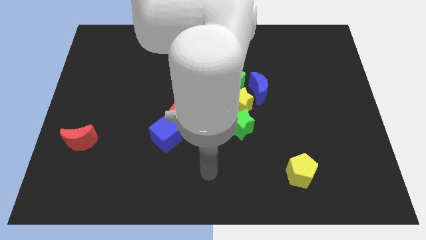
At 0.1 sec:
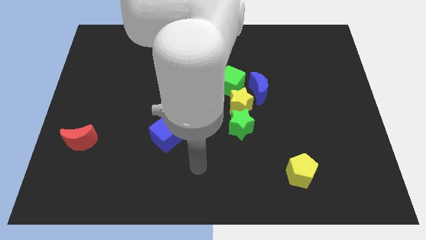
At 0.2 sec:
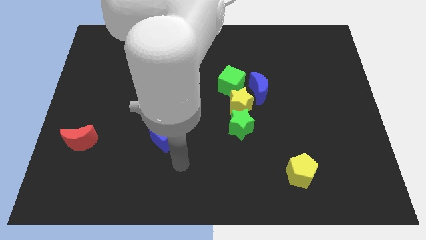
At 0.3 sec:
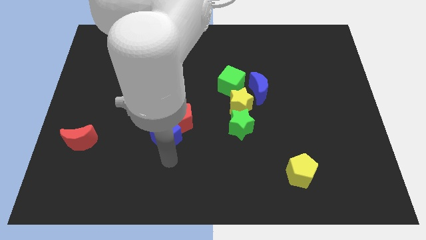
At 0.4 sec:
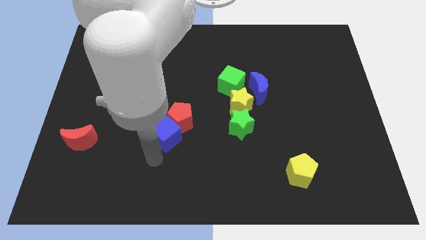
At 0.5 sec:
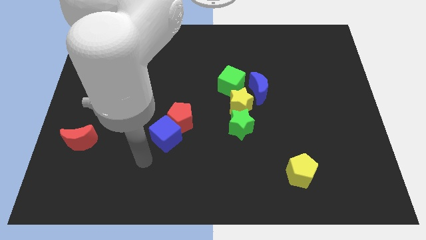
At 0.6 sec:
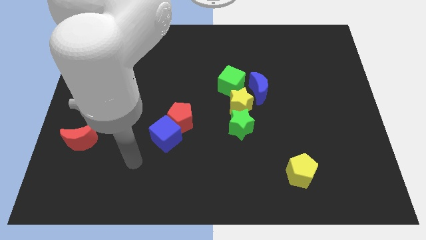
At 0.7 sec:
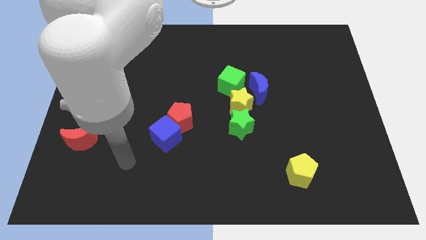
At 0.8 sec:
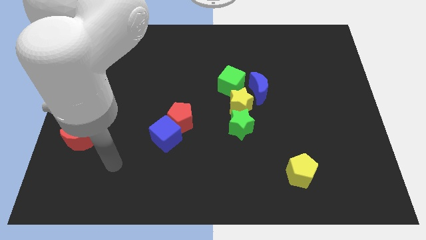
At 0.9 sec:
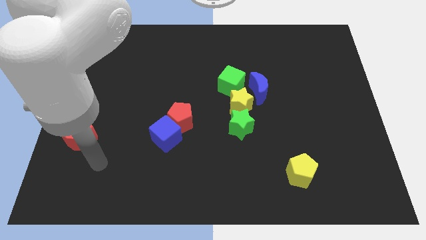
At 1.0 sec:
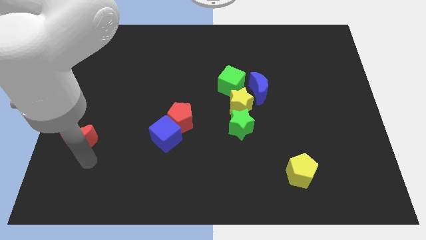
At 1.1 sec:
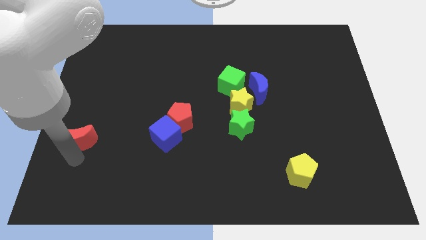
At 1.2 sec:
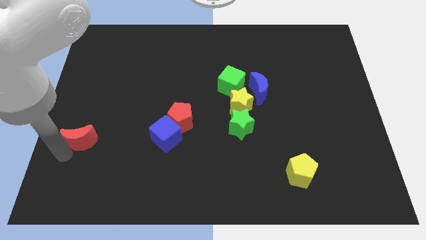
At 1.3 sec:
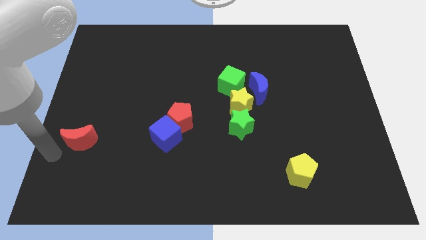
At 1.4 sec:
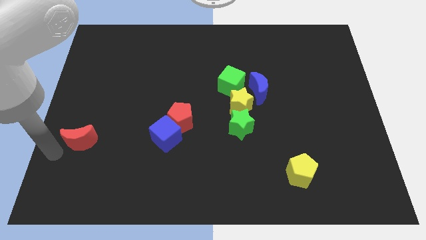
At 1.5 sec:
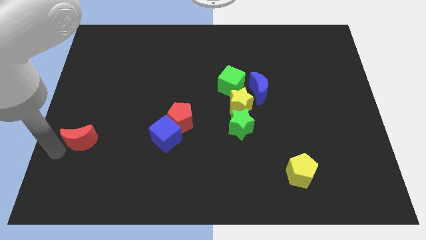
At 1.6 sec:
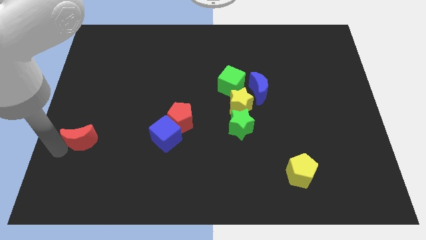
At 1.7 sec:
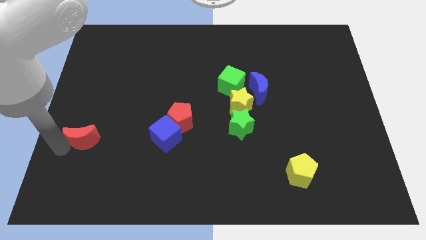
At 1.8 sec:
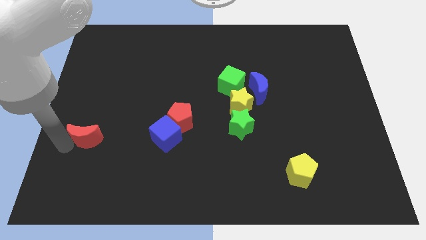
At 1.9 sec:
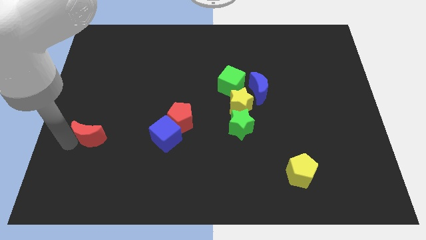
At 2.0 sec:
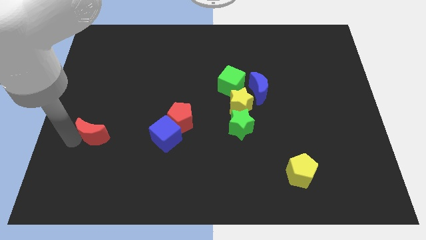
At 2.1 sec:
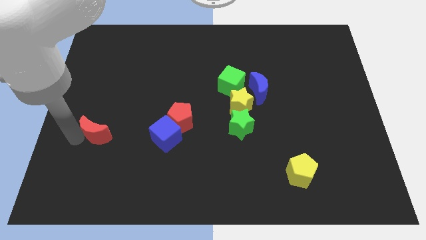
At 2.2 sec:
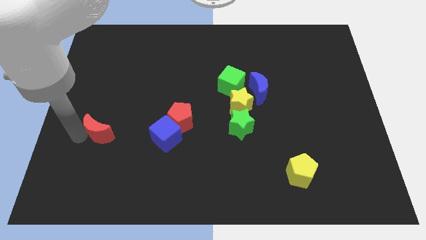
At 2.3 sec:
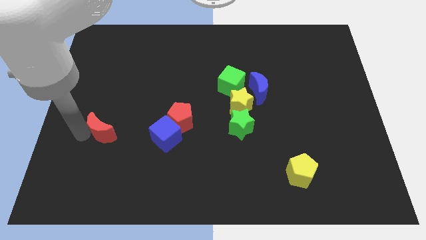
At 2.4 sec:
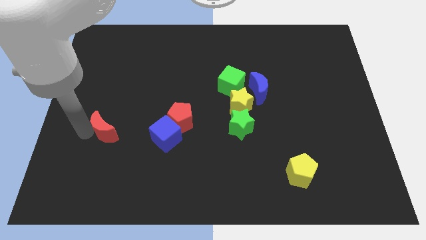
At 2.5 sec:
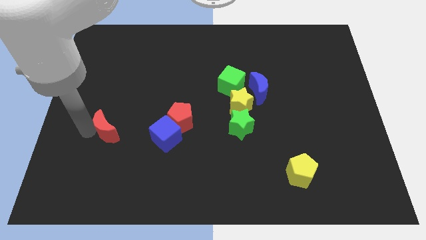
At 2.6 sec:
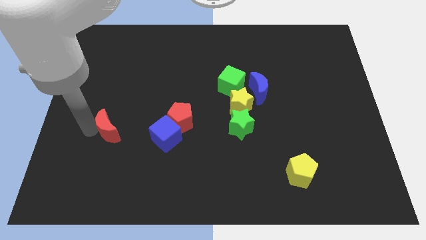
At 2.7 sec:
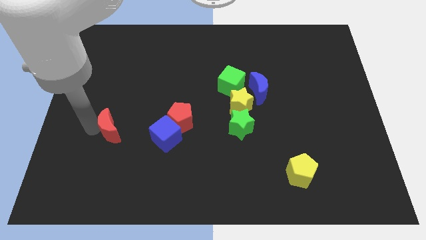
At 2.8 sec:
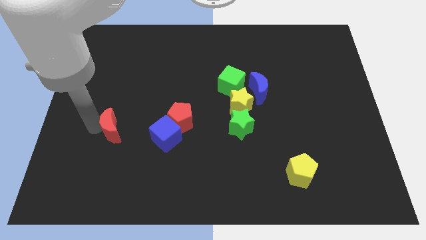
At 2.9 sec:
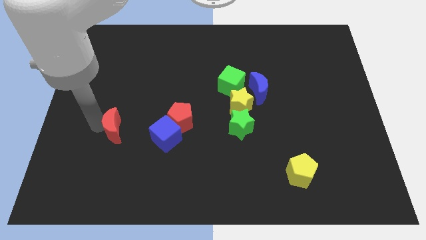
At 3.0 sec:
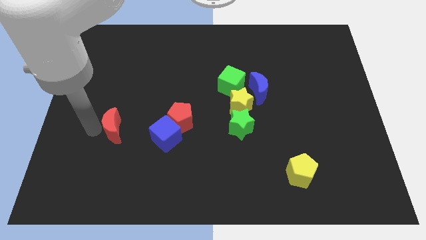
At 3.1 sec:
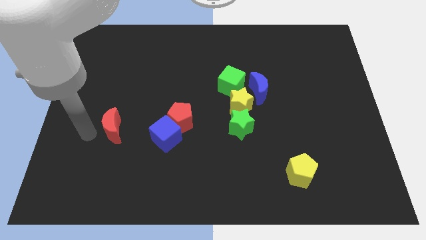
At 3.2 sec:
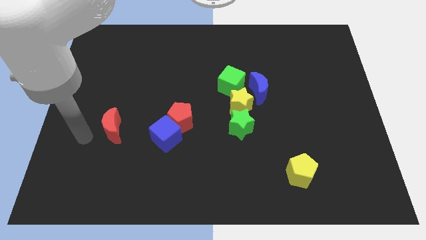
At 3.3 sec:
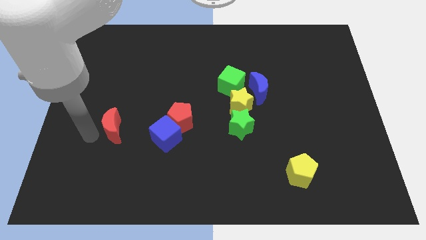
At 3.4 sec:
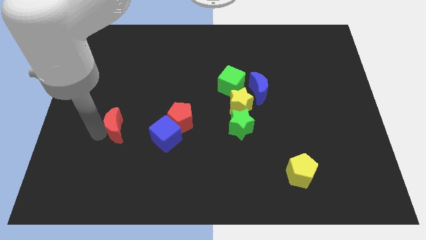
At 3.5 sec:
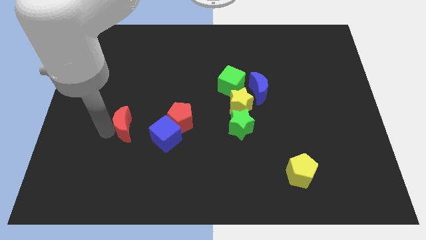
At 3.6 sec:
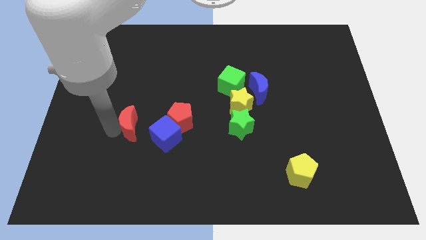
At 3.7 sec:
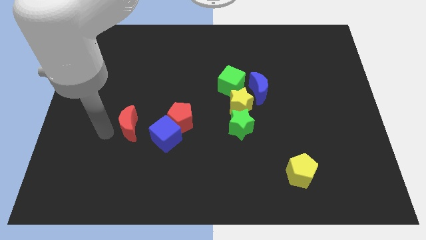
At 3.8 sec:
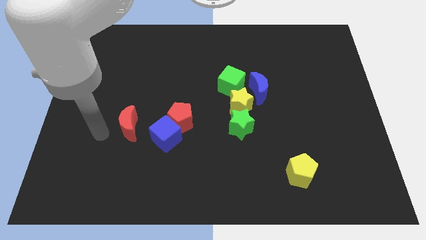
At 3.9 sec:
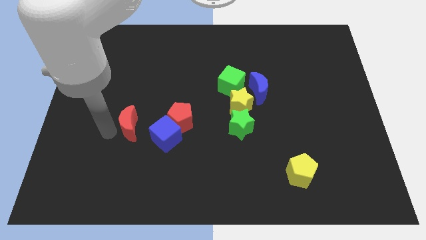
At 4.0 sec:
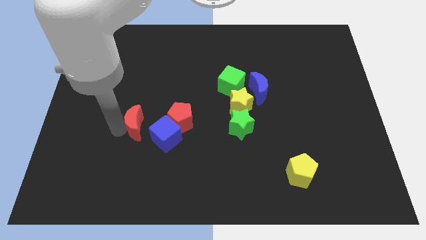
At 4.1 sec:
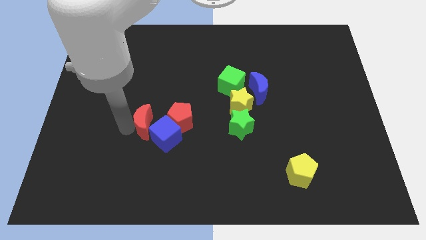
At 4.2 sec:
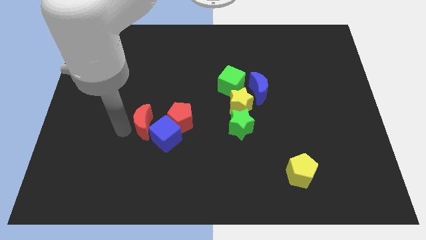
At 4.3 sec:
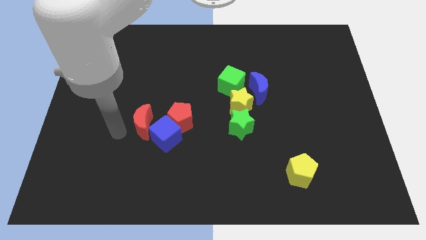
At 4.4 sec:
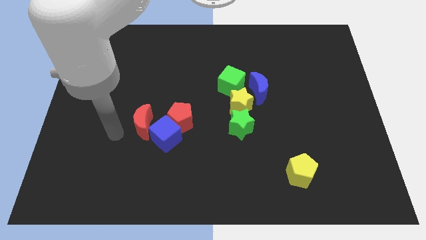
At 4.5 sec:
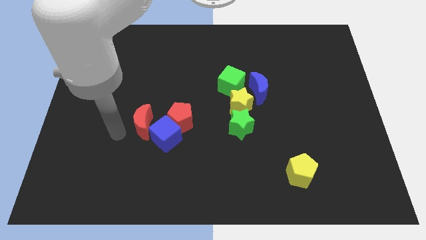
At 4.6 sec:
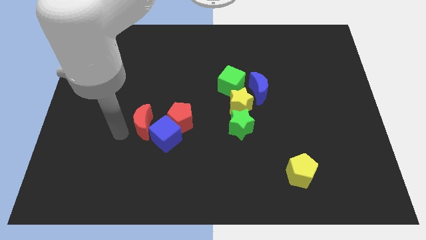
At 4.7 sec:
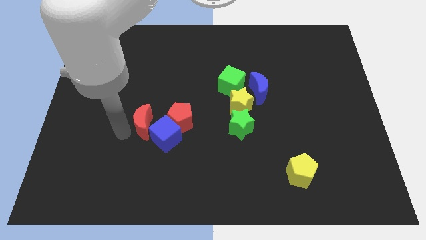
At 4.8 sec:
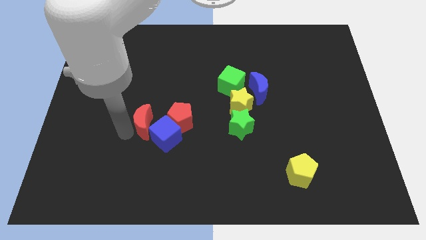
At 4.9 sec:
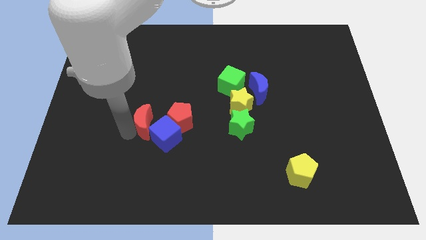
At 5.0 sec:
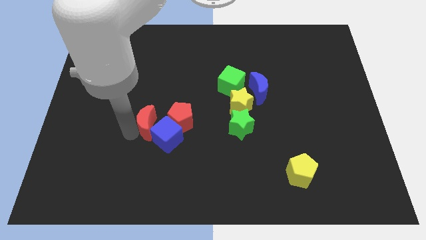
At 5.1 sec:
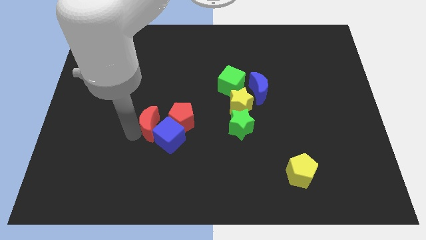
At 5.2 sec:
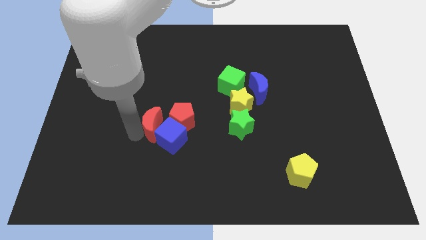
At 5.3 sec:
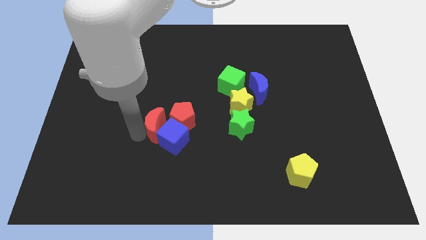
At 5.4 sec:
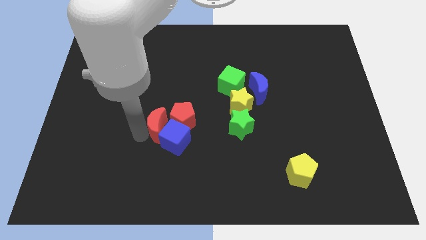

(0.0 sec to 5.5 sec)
slide the red moon close to the red pentagon

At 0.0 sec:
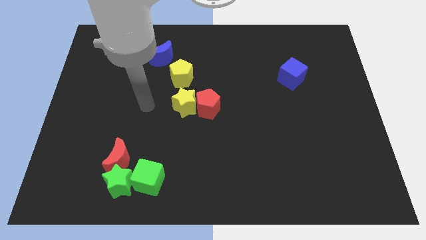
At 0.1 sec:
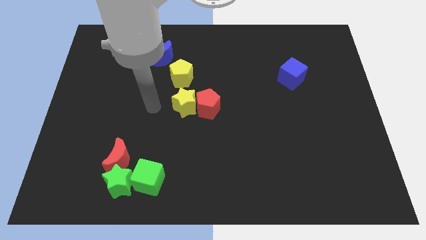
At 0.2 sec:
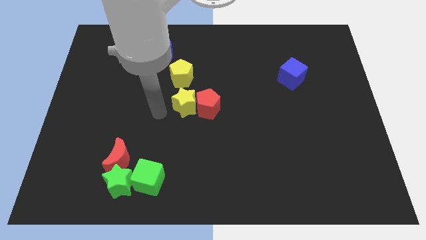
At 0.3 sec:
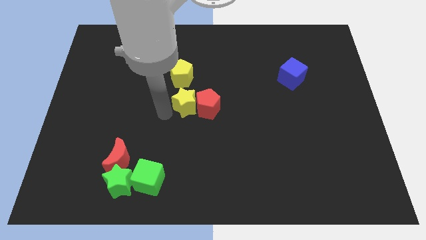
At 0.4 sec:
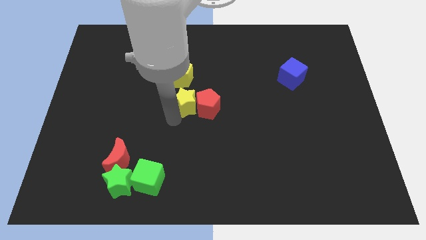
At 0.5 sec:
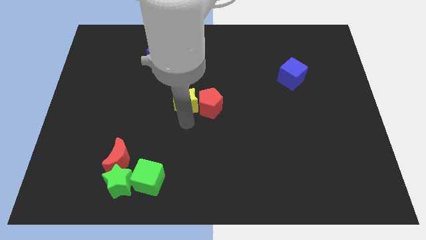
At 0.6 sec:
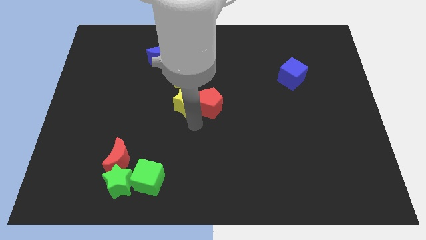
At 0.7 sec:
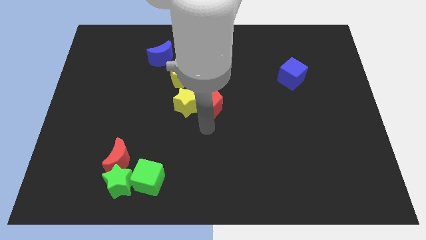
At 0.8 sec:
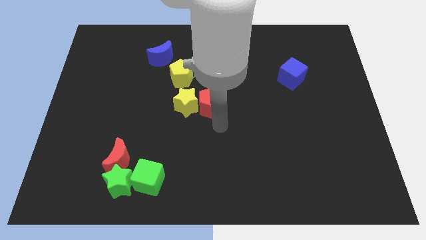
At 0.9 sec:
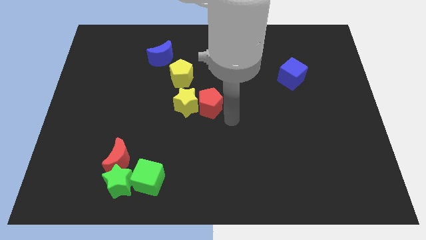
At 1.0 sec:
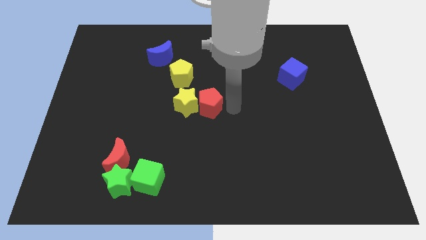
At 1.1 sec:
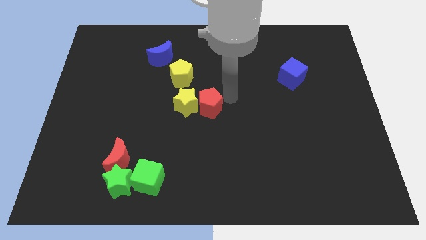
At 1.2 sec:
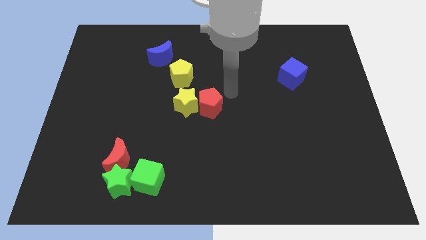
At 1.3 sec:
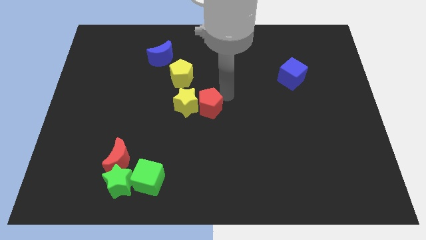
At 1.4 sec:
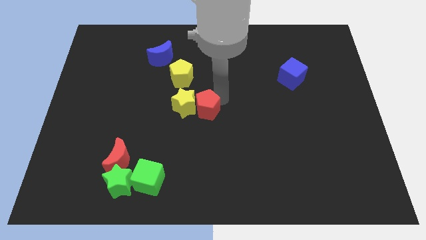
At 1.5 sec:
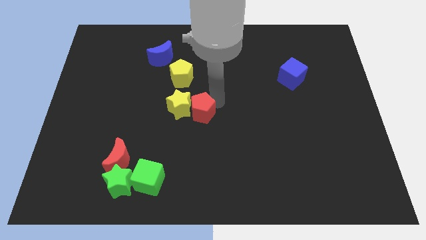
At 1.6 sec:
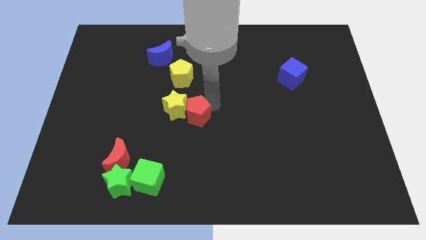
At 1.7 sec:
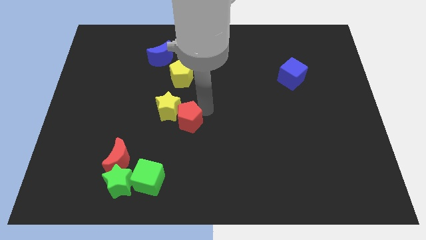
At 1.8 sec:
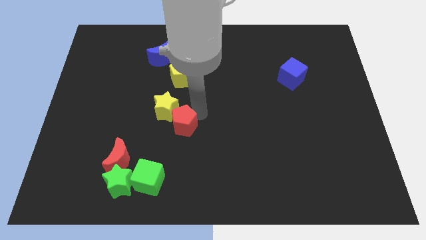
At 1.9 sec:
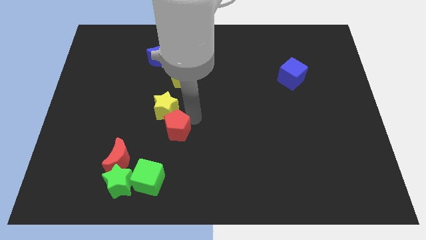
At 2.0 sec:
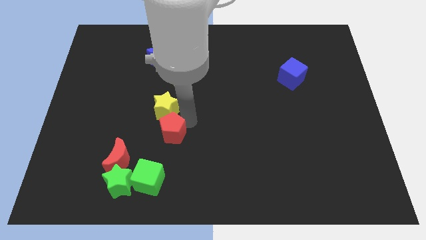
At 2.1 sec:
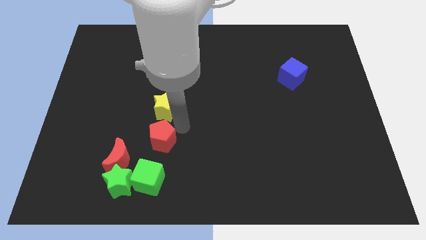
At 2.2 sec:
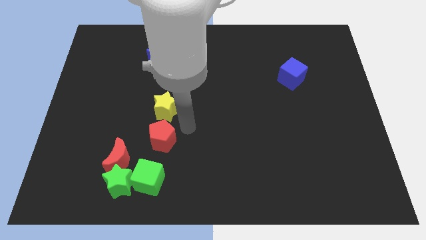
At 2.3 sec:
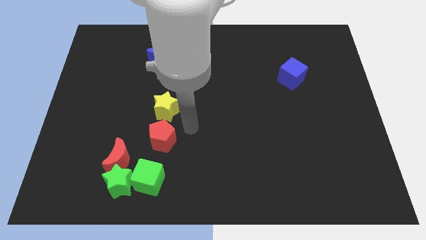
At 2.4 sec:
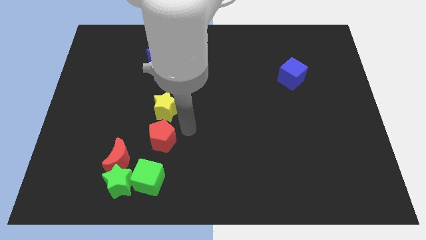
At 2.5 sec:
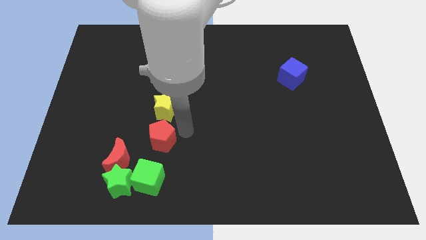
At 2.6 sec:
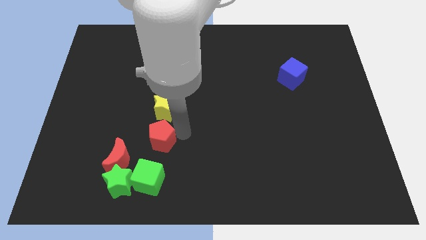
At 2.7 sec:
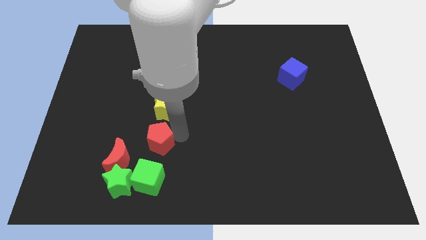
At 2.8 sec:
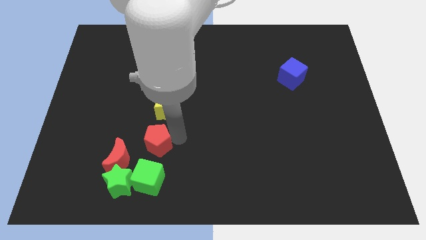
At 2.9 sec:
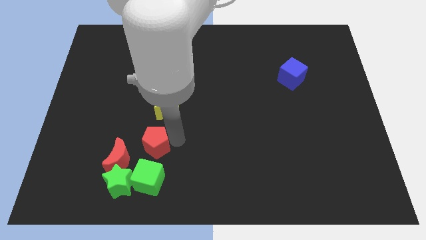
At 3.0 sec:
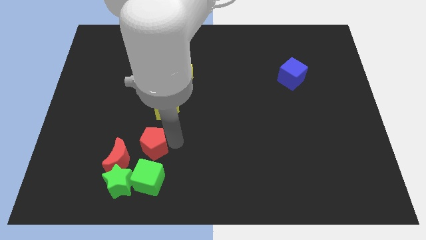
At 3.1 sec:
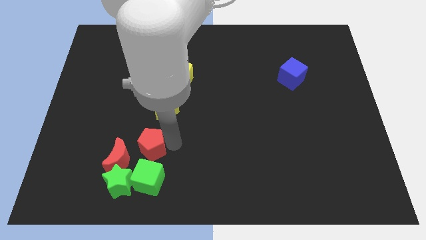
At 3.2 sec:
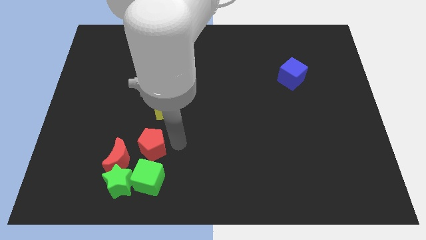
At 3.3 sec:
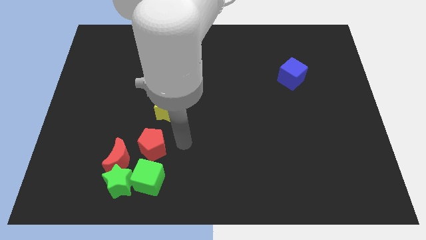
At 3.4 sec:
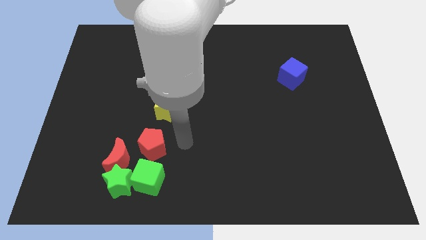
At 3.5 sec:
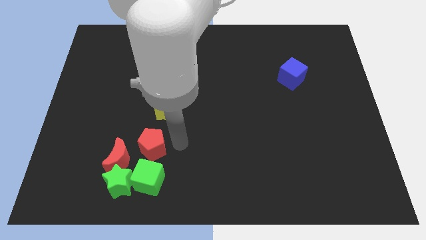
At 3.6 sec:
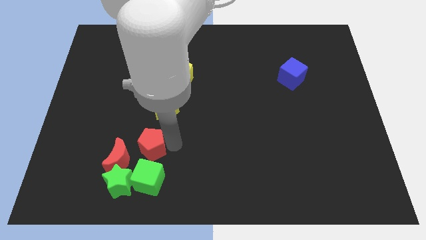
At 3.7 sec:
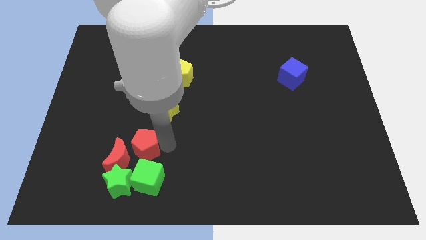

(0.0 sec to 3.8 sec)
move the red pentagon next to the red moon
